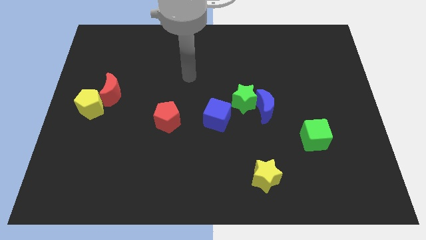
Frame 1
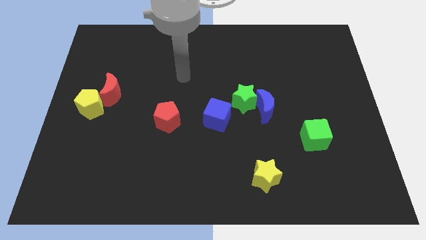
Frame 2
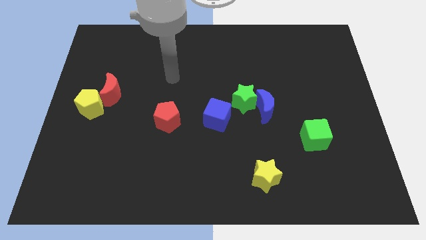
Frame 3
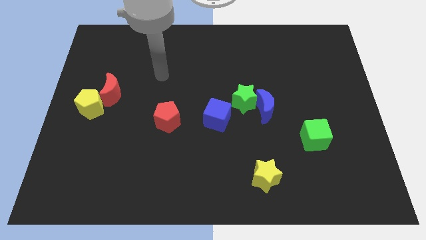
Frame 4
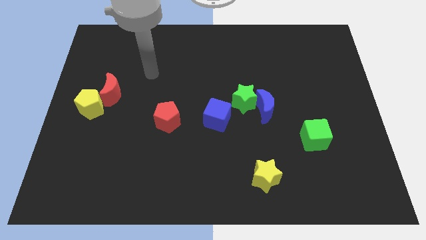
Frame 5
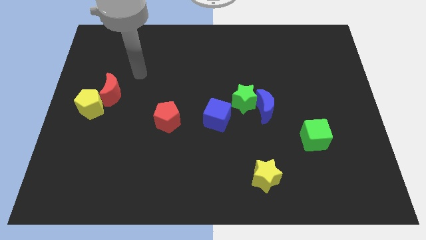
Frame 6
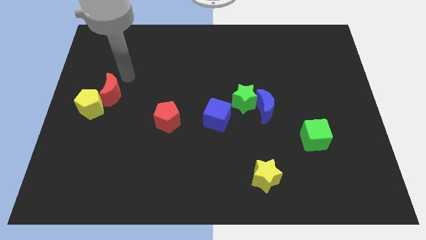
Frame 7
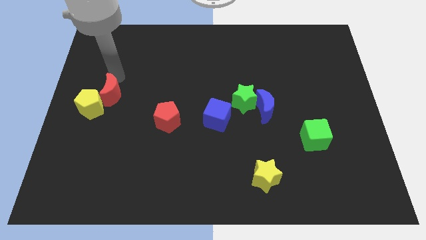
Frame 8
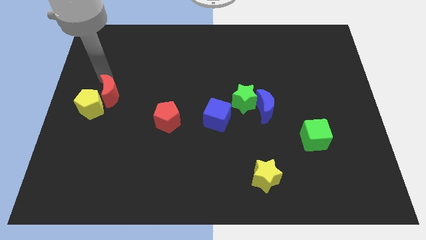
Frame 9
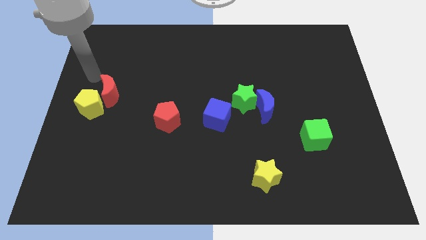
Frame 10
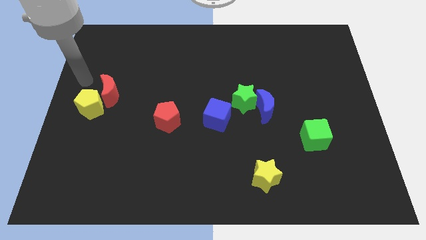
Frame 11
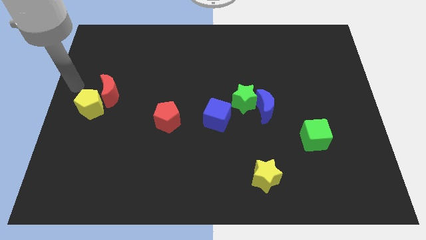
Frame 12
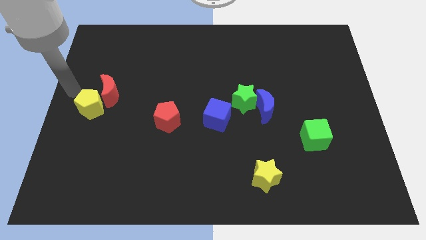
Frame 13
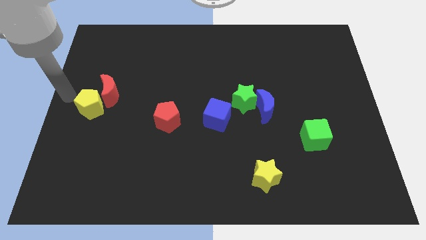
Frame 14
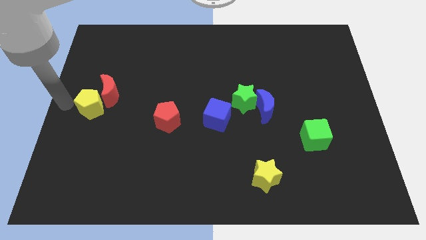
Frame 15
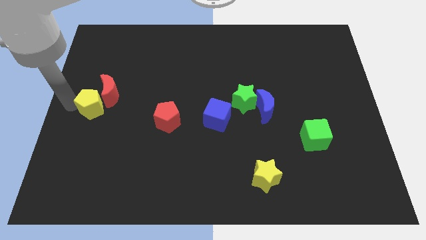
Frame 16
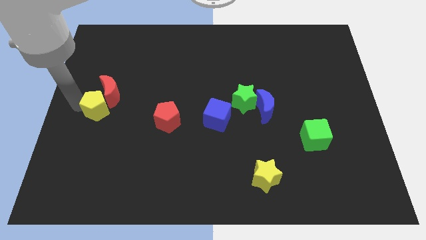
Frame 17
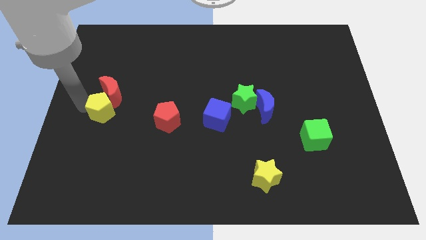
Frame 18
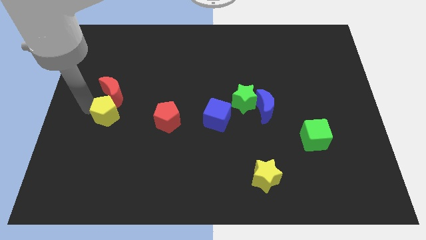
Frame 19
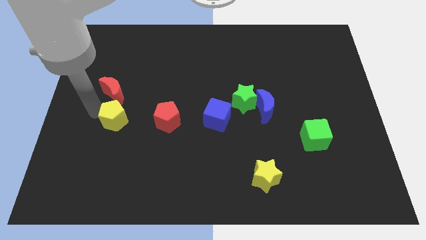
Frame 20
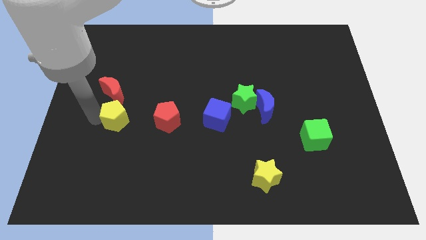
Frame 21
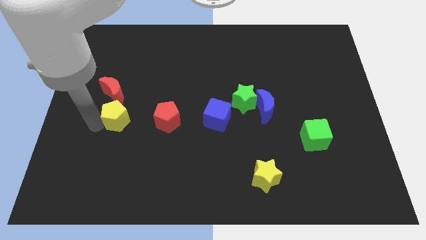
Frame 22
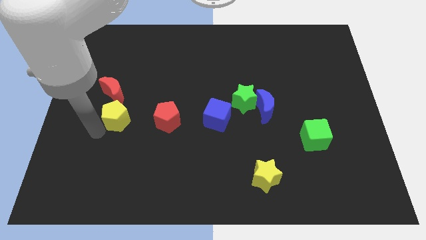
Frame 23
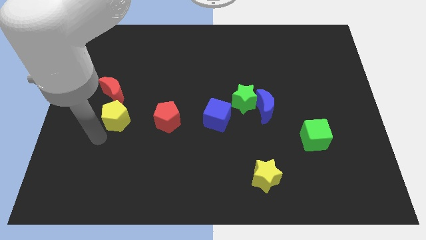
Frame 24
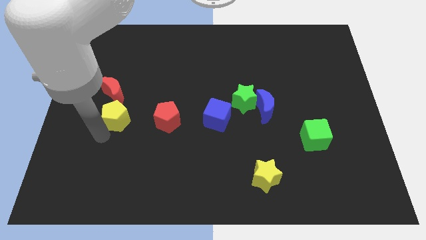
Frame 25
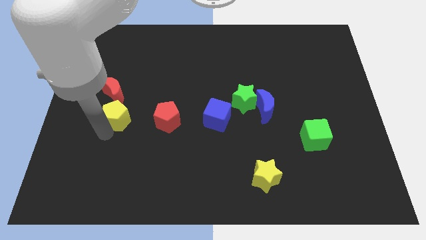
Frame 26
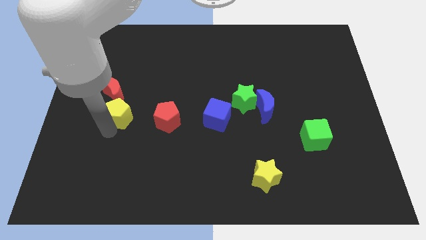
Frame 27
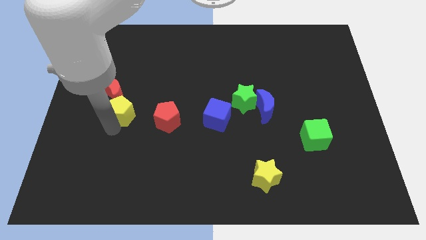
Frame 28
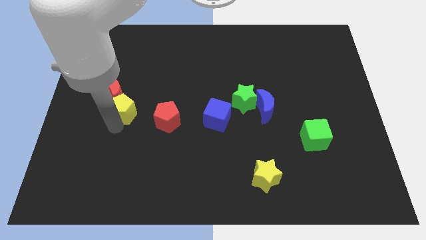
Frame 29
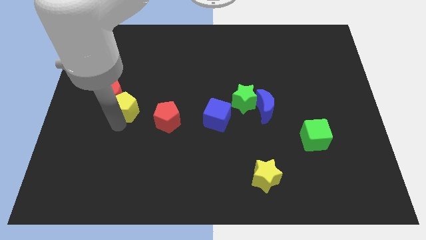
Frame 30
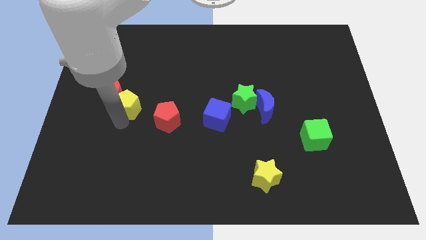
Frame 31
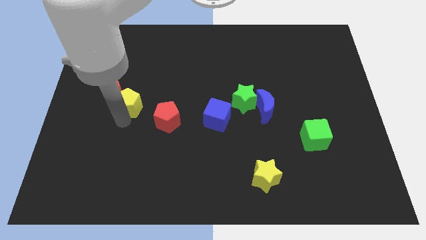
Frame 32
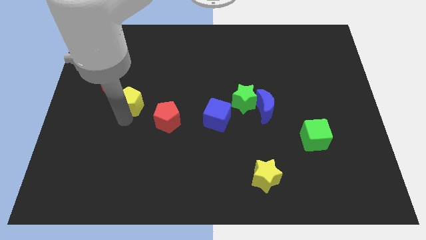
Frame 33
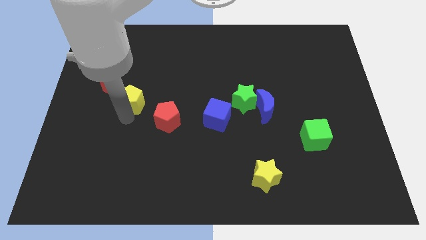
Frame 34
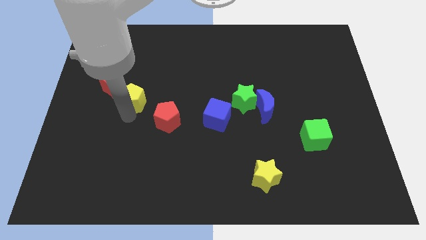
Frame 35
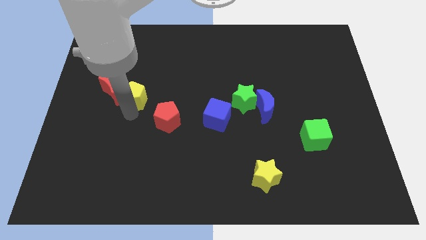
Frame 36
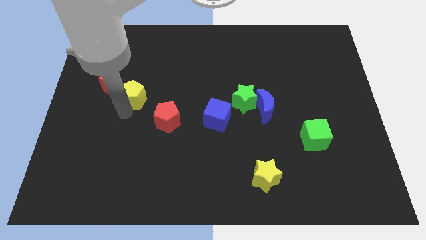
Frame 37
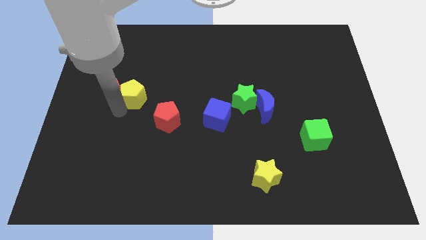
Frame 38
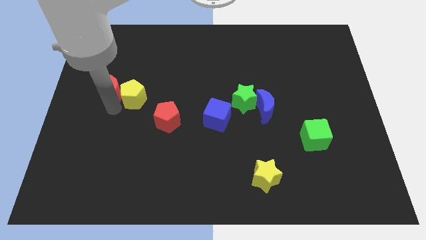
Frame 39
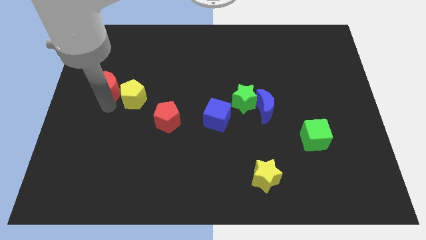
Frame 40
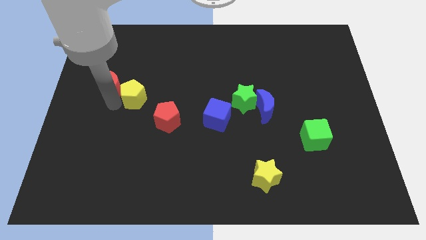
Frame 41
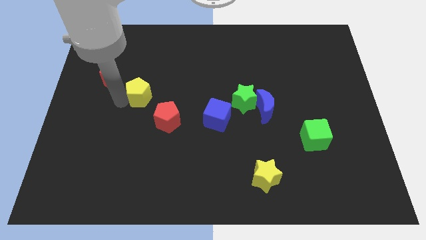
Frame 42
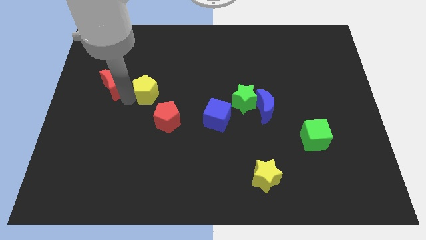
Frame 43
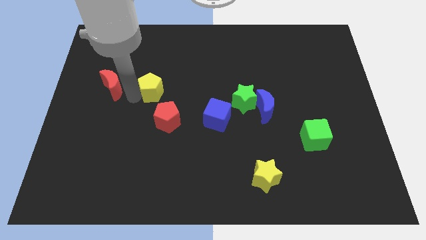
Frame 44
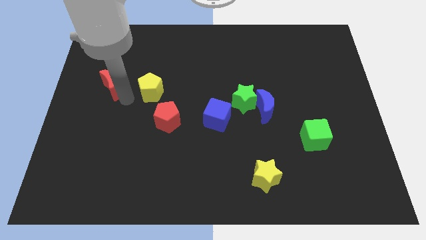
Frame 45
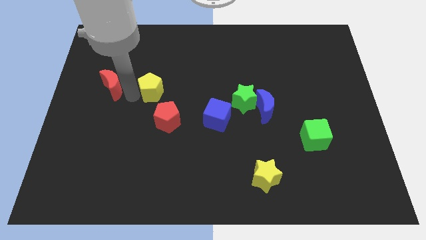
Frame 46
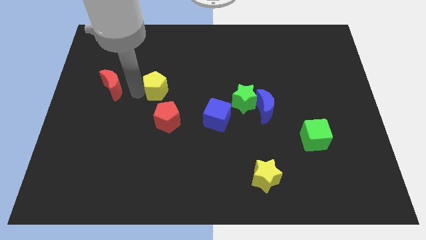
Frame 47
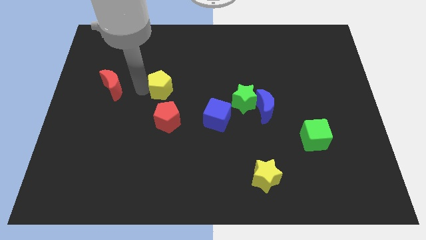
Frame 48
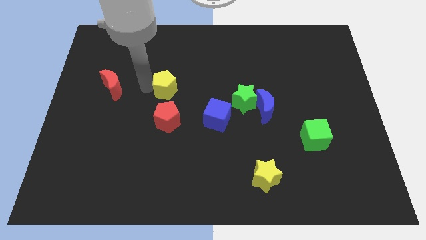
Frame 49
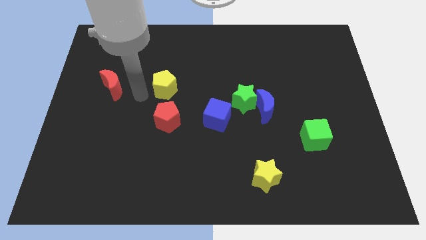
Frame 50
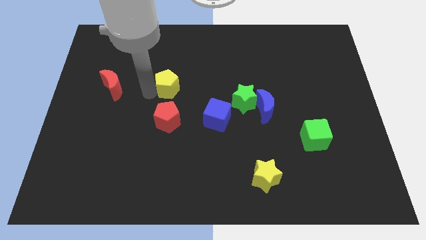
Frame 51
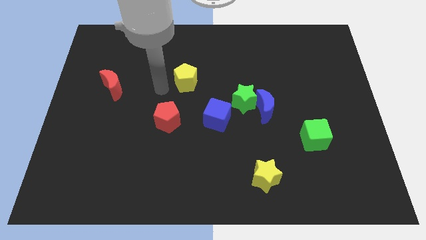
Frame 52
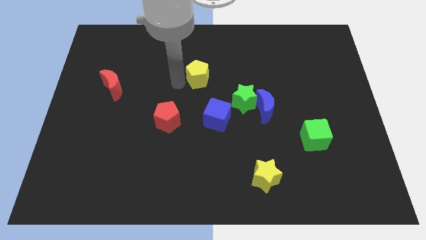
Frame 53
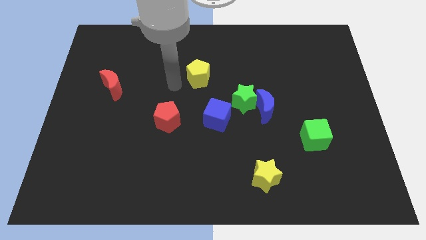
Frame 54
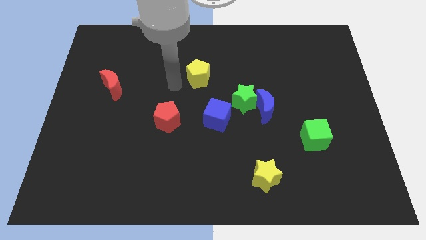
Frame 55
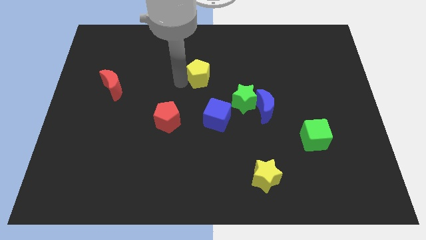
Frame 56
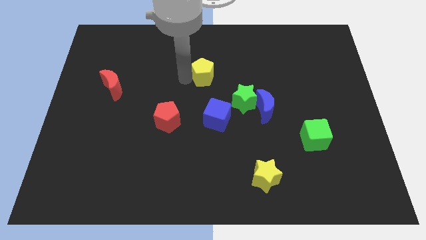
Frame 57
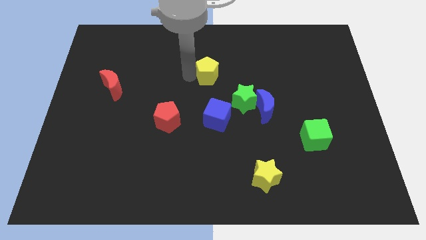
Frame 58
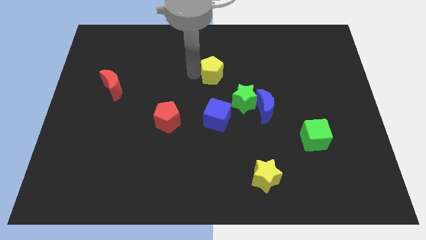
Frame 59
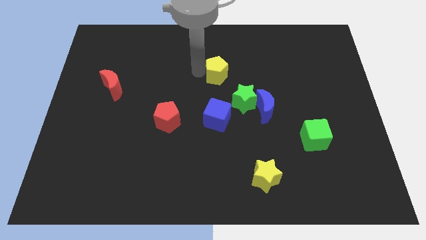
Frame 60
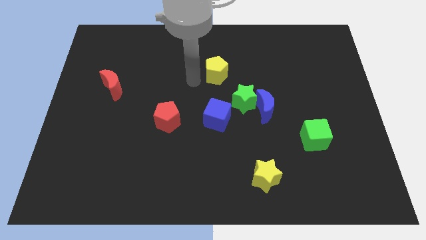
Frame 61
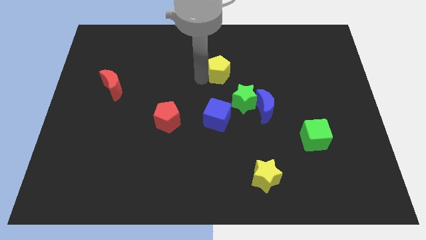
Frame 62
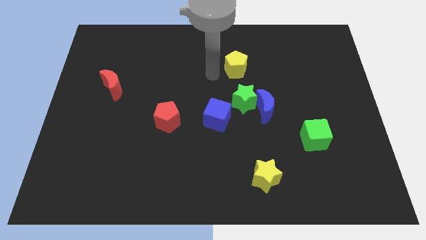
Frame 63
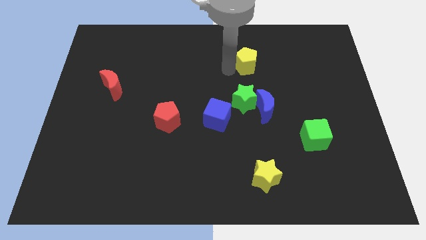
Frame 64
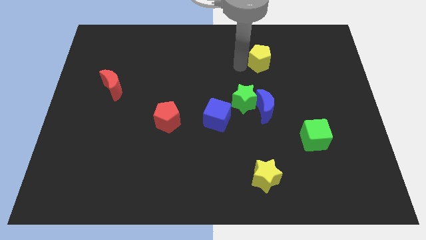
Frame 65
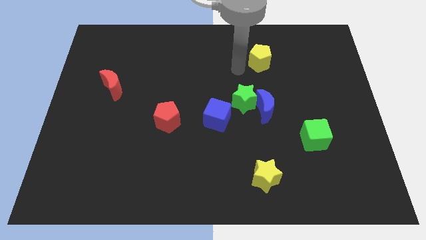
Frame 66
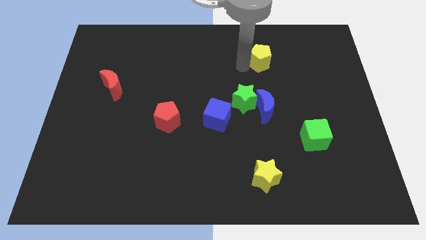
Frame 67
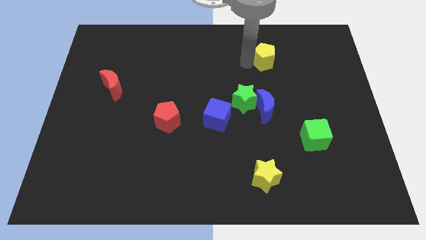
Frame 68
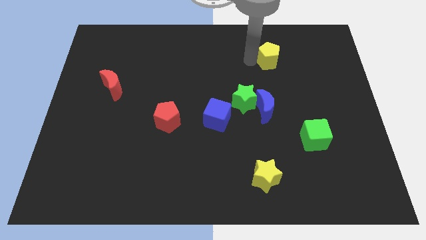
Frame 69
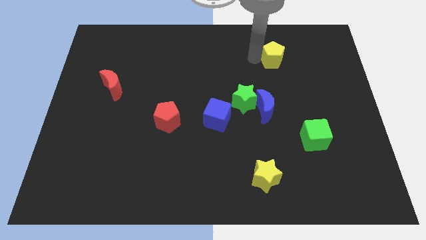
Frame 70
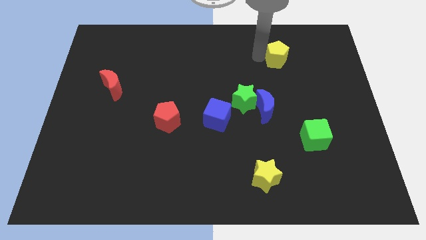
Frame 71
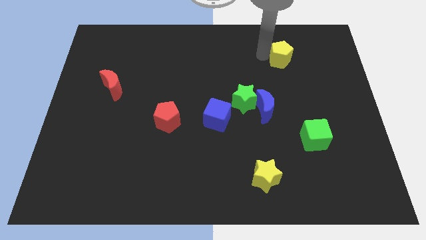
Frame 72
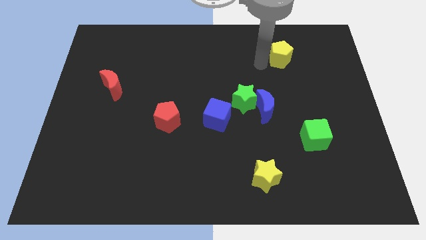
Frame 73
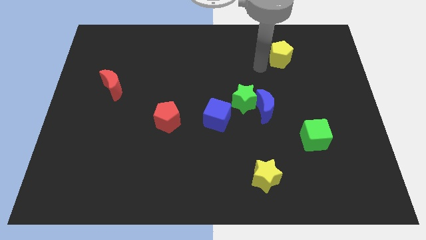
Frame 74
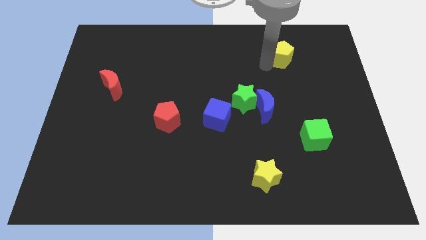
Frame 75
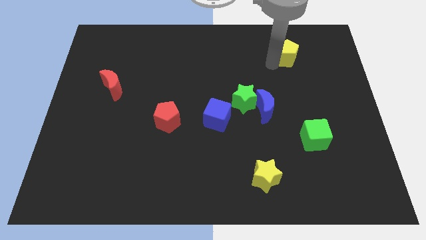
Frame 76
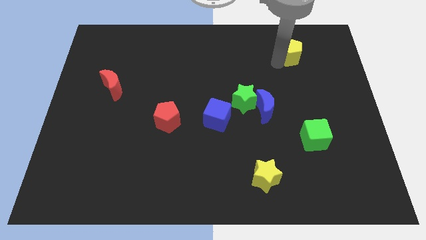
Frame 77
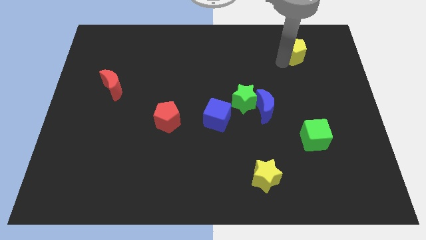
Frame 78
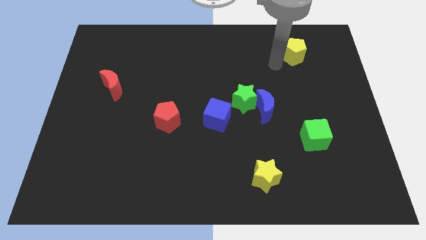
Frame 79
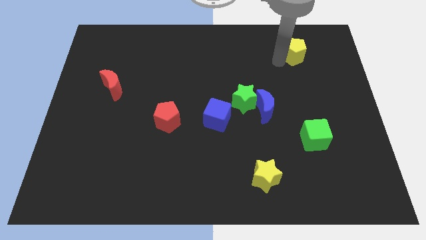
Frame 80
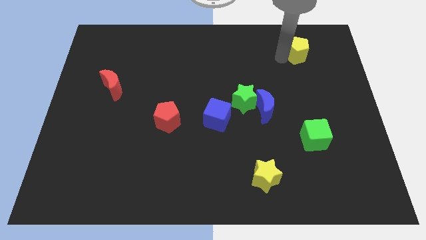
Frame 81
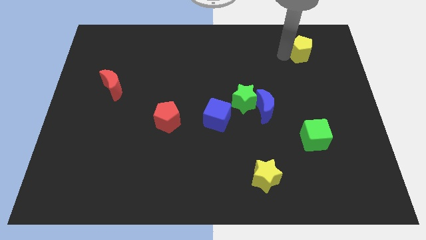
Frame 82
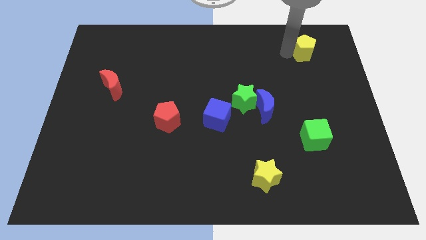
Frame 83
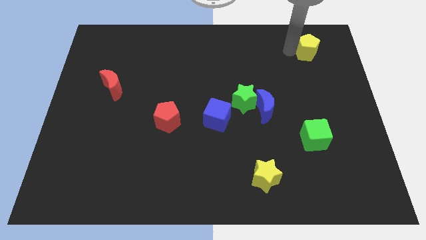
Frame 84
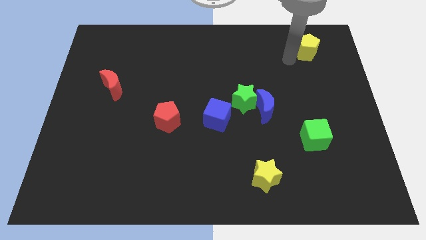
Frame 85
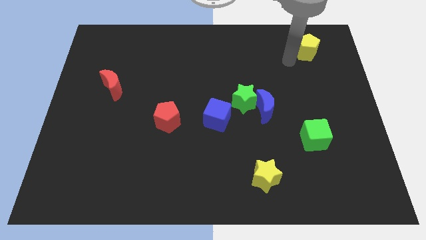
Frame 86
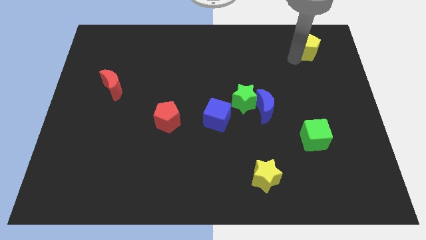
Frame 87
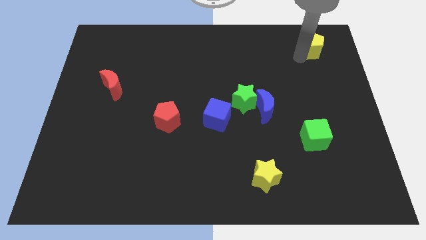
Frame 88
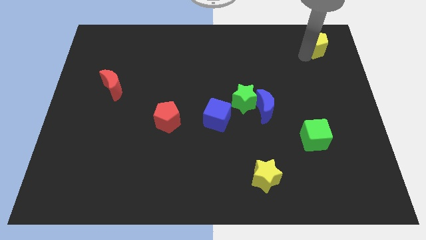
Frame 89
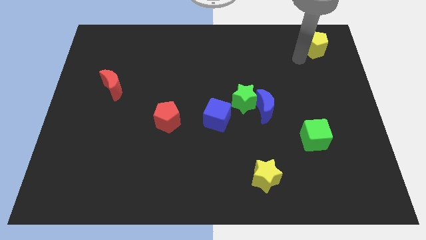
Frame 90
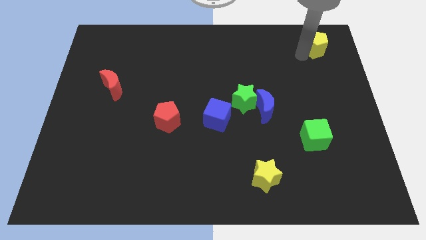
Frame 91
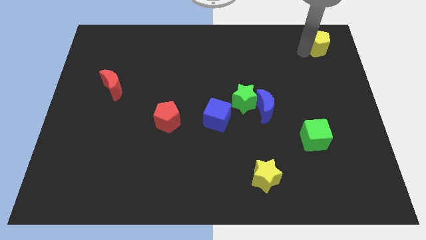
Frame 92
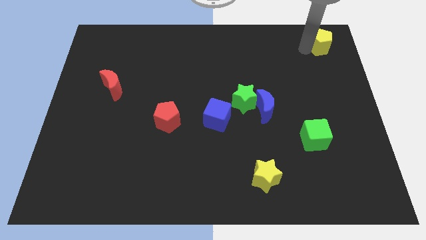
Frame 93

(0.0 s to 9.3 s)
move the yellow pentagon to the upper right corner
